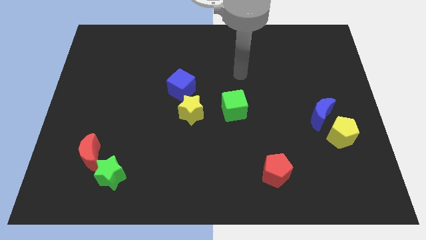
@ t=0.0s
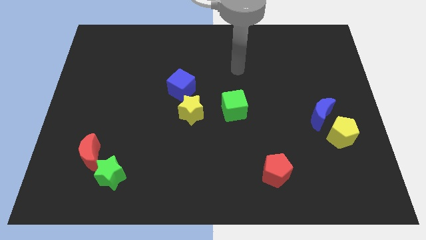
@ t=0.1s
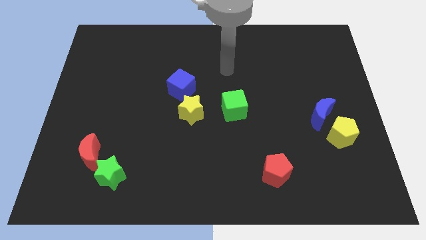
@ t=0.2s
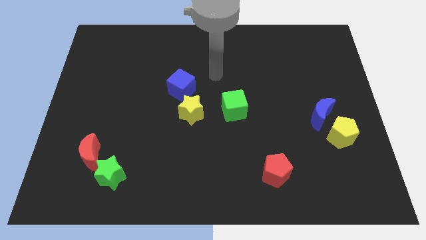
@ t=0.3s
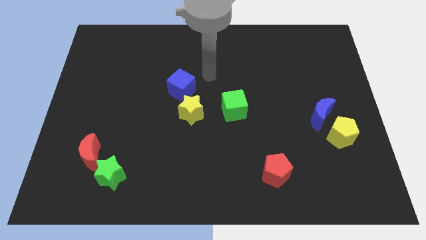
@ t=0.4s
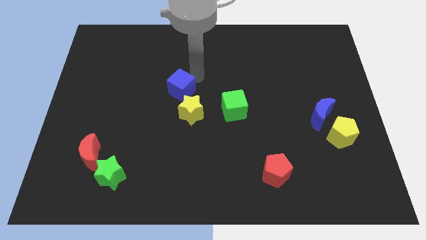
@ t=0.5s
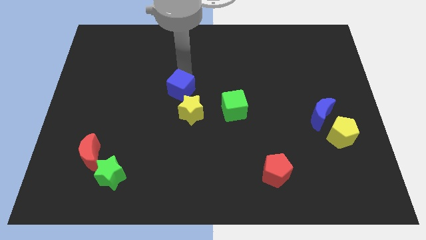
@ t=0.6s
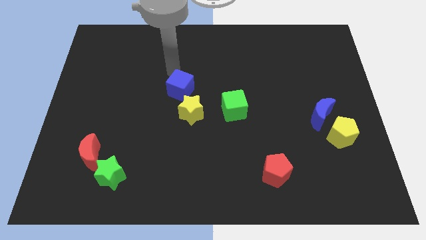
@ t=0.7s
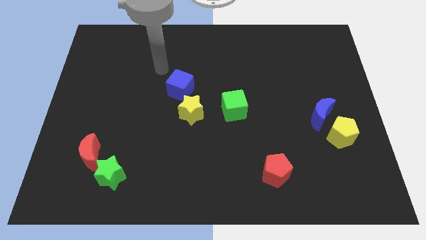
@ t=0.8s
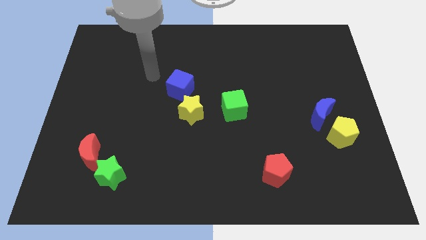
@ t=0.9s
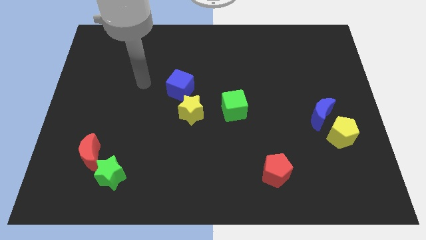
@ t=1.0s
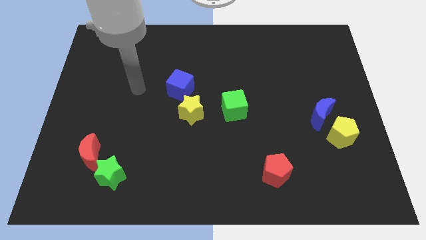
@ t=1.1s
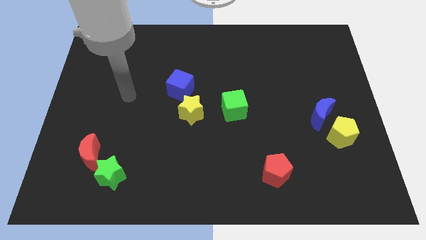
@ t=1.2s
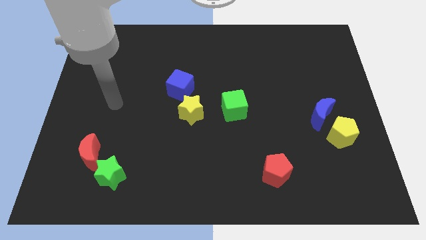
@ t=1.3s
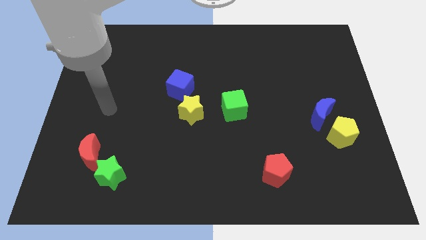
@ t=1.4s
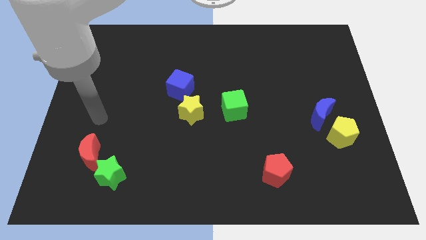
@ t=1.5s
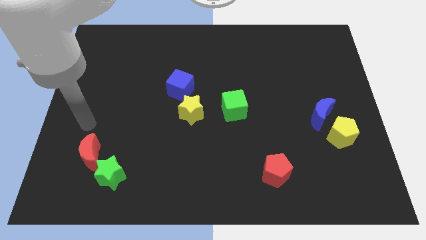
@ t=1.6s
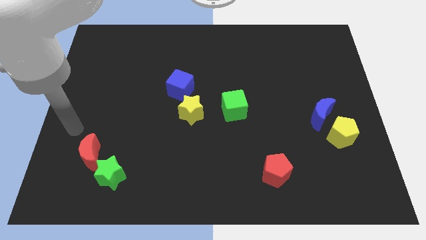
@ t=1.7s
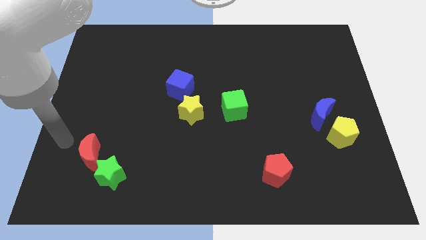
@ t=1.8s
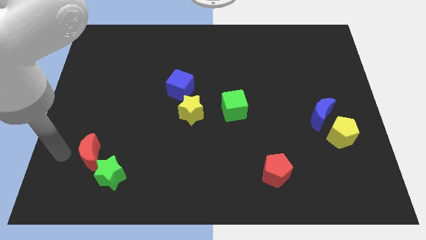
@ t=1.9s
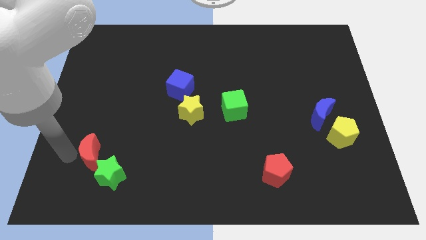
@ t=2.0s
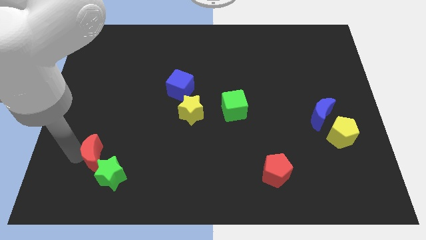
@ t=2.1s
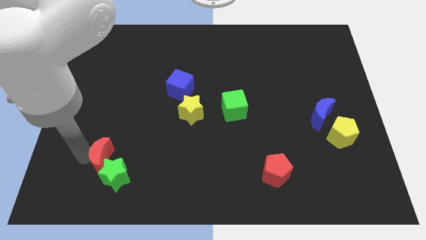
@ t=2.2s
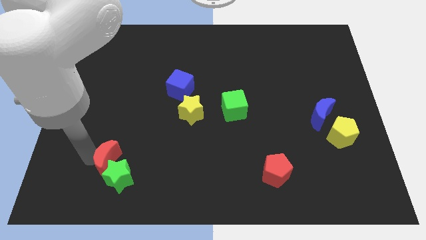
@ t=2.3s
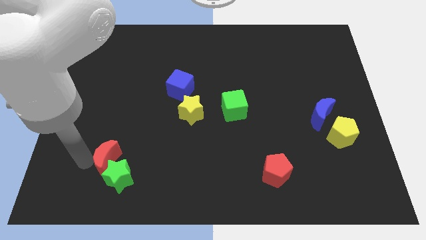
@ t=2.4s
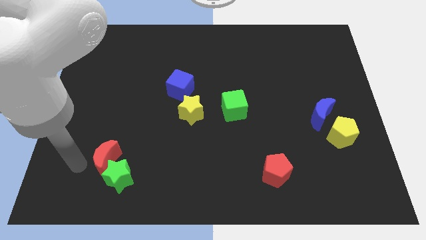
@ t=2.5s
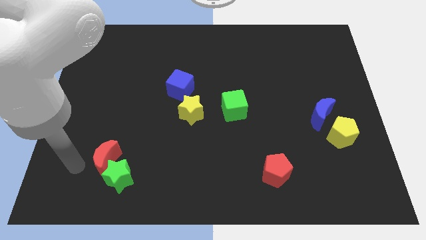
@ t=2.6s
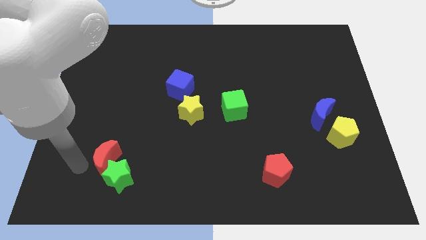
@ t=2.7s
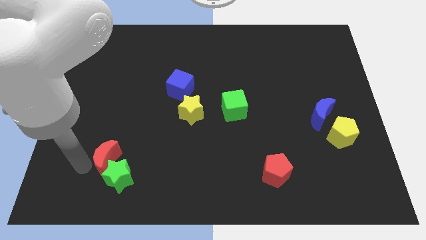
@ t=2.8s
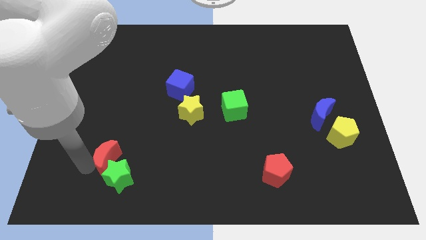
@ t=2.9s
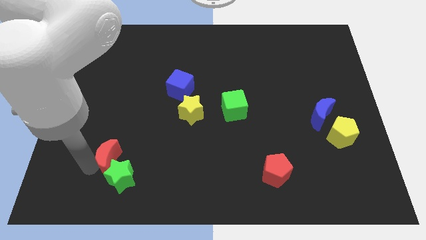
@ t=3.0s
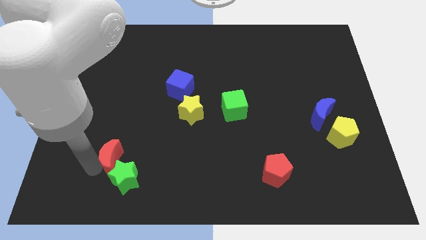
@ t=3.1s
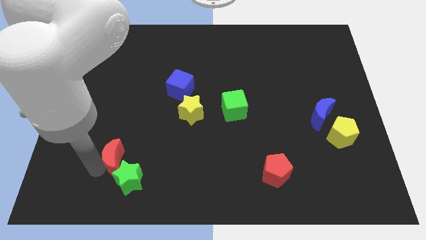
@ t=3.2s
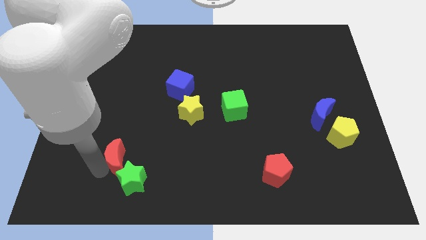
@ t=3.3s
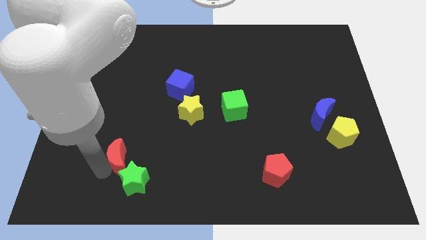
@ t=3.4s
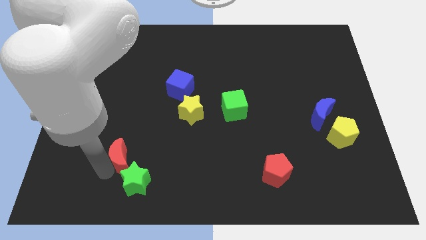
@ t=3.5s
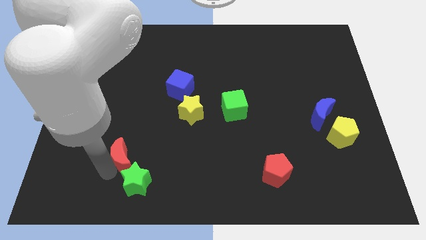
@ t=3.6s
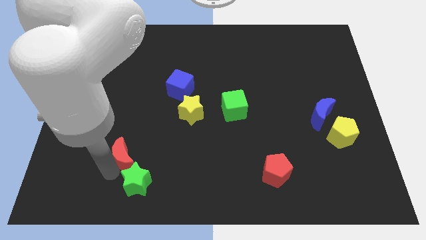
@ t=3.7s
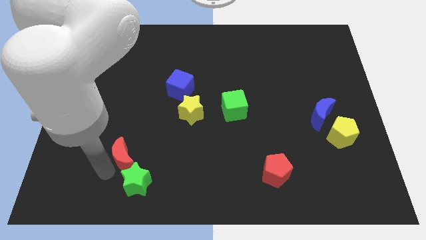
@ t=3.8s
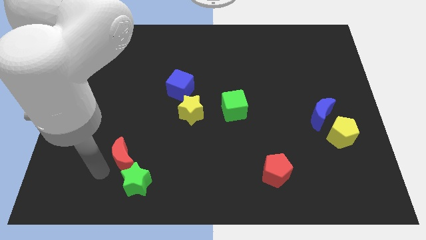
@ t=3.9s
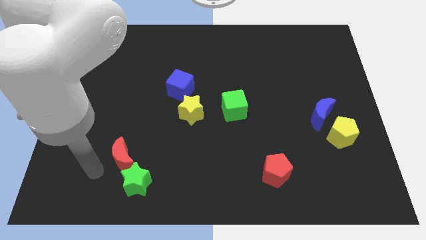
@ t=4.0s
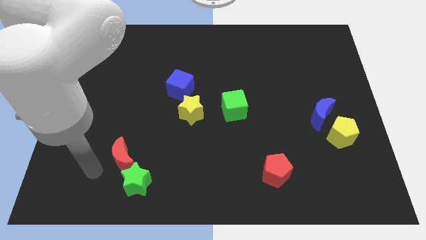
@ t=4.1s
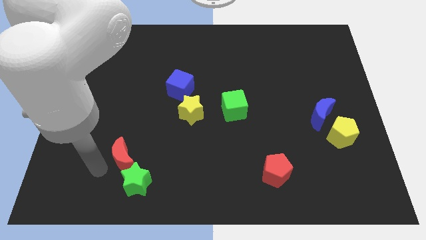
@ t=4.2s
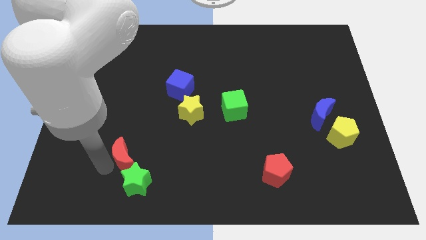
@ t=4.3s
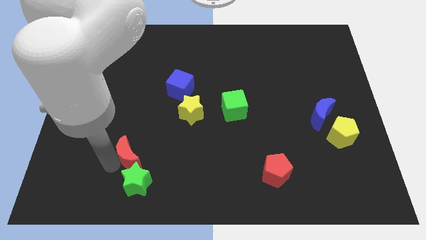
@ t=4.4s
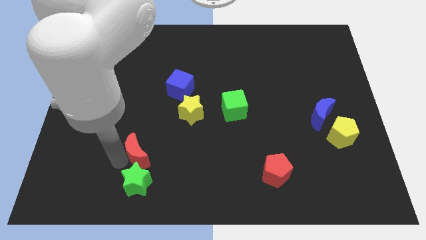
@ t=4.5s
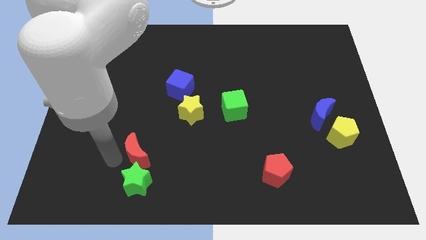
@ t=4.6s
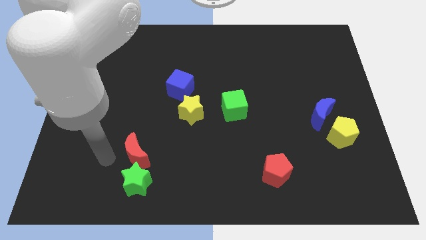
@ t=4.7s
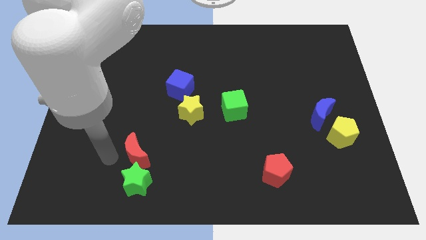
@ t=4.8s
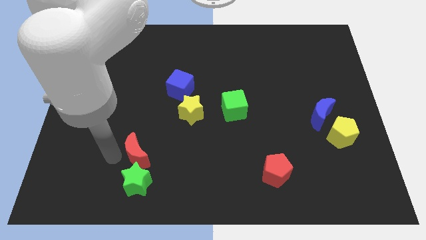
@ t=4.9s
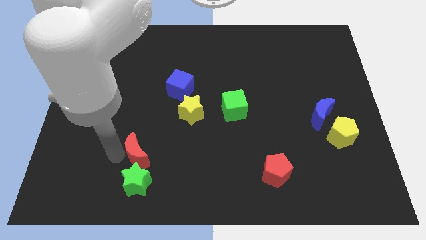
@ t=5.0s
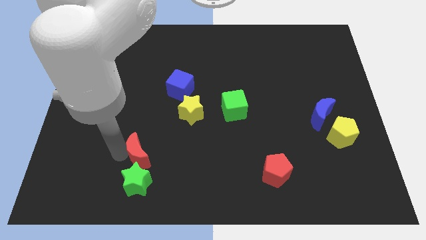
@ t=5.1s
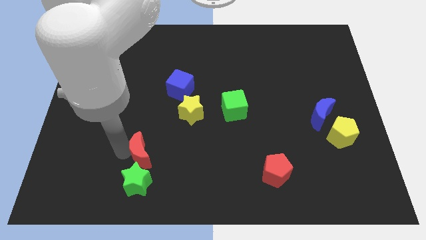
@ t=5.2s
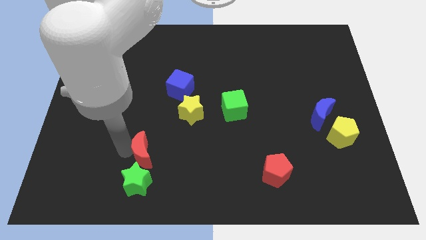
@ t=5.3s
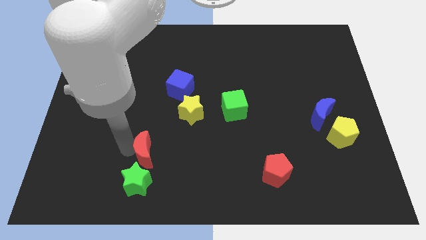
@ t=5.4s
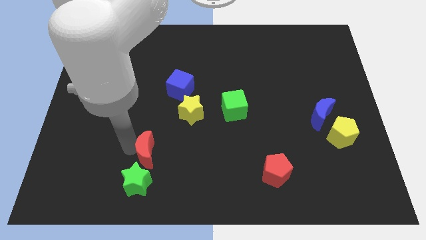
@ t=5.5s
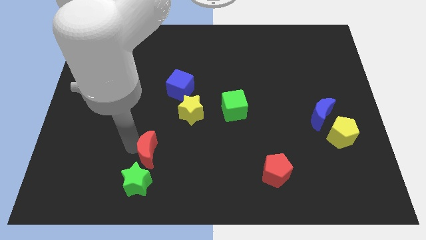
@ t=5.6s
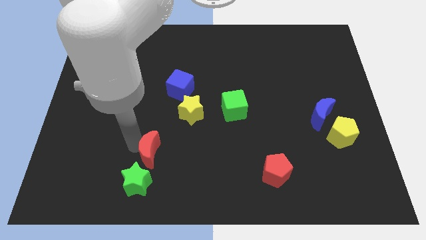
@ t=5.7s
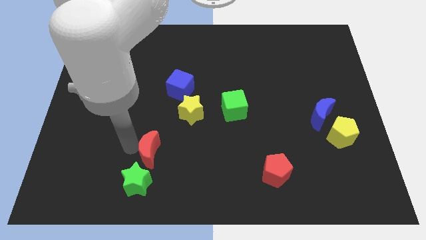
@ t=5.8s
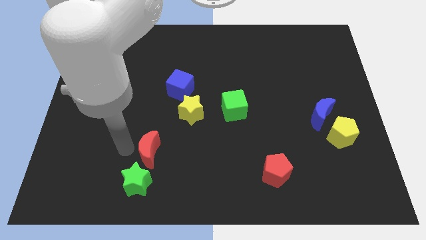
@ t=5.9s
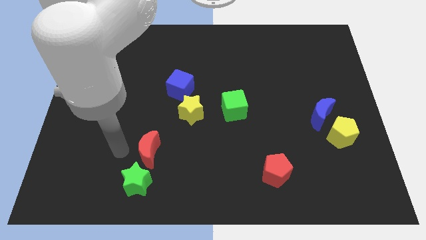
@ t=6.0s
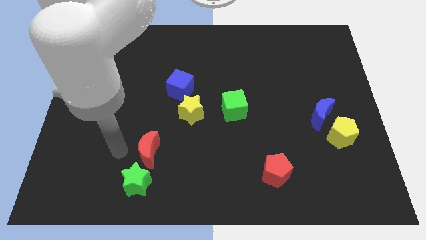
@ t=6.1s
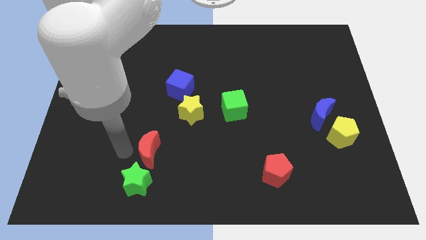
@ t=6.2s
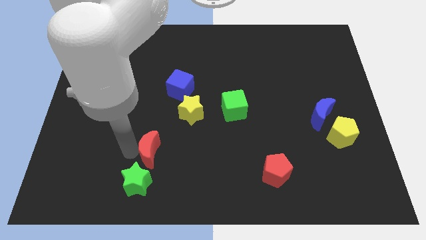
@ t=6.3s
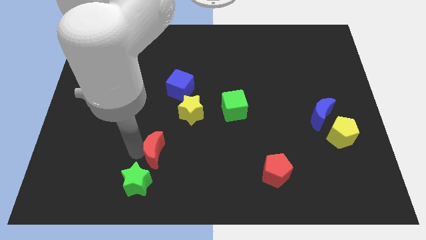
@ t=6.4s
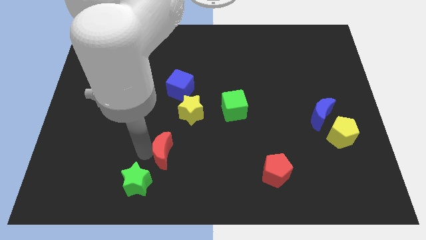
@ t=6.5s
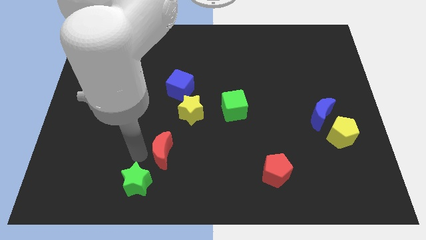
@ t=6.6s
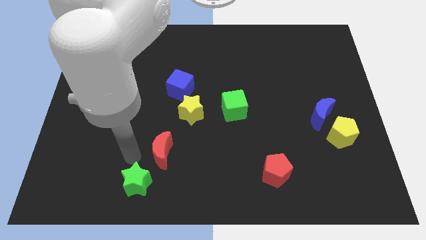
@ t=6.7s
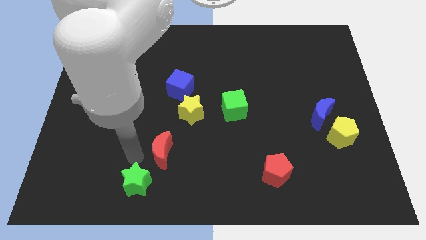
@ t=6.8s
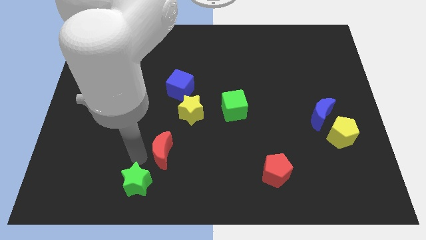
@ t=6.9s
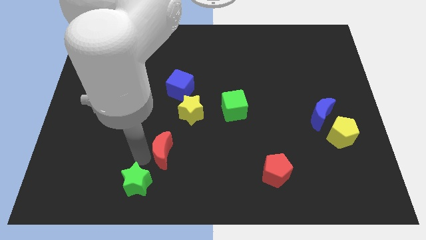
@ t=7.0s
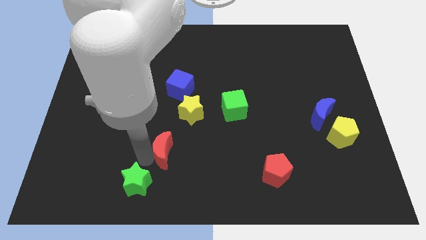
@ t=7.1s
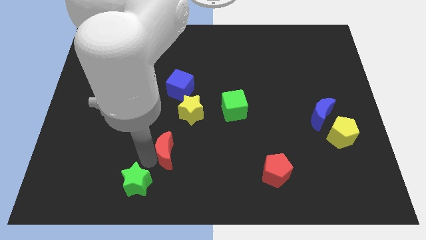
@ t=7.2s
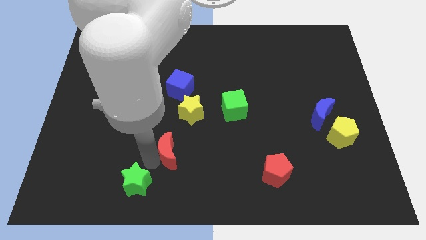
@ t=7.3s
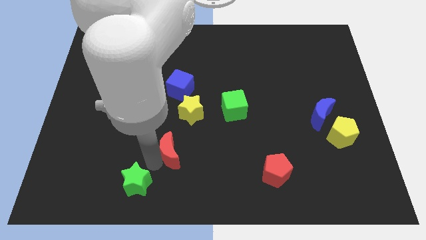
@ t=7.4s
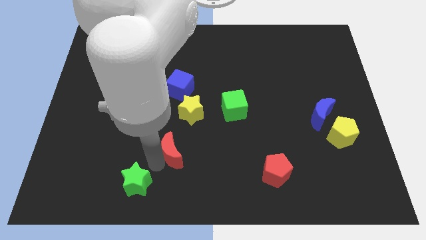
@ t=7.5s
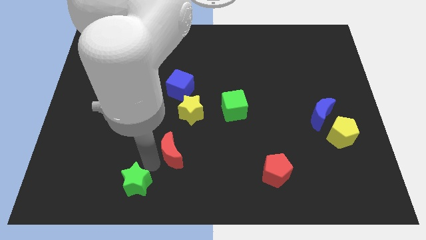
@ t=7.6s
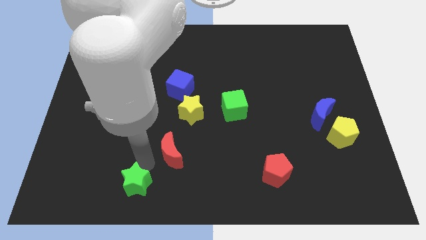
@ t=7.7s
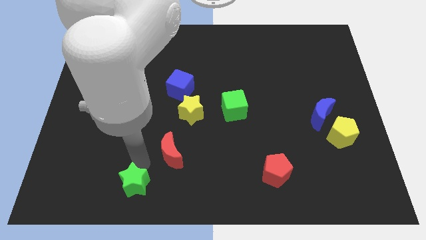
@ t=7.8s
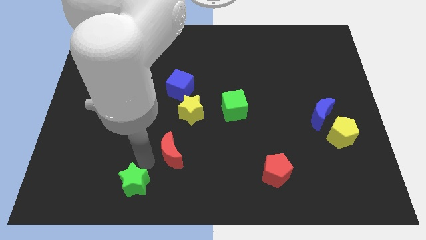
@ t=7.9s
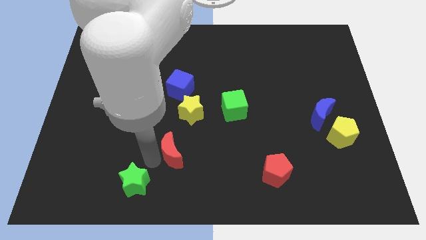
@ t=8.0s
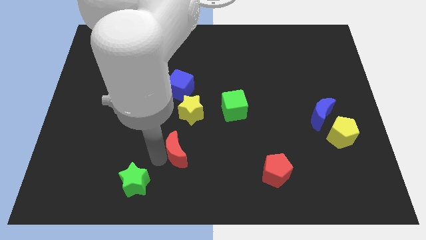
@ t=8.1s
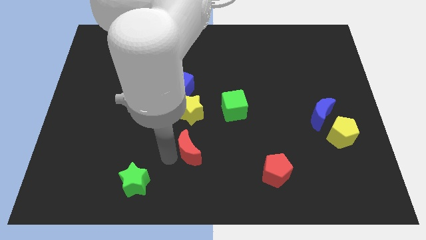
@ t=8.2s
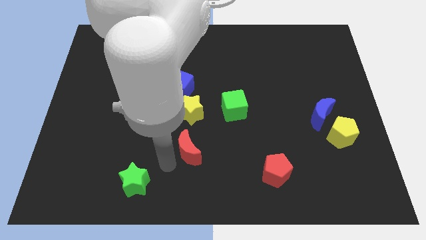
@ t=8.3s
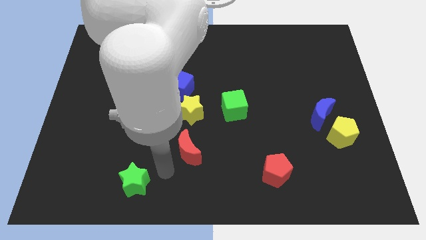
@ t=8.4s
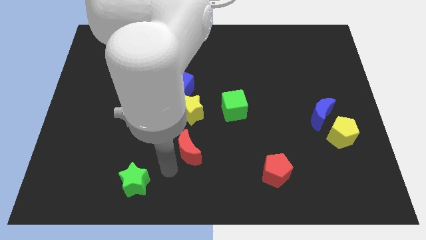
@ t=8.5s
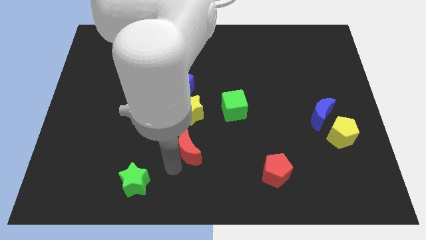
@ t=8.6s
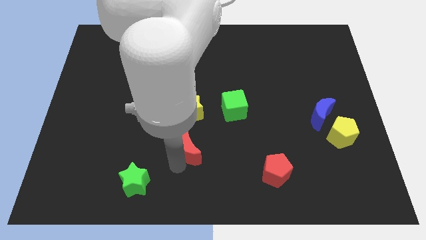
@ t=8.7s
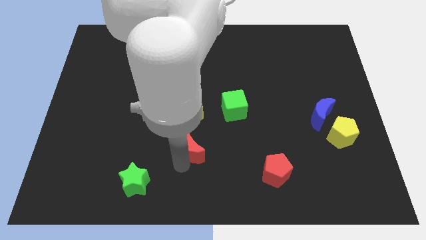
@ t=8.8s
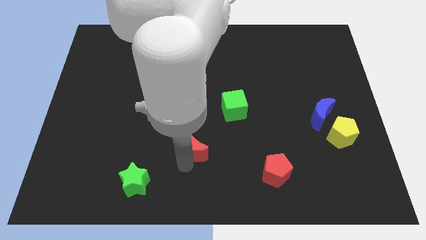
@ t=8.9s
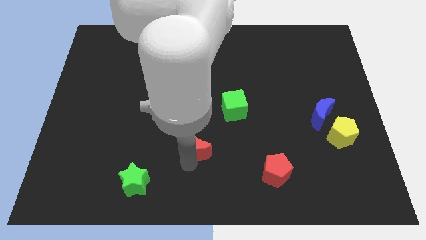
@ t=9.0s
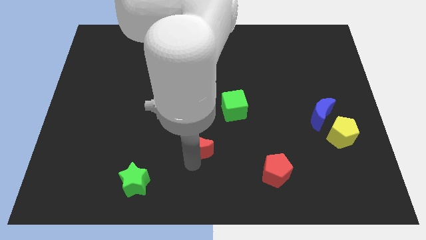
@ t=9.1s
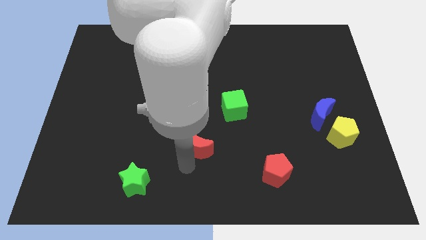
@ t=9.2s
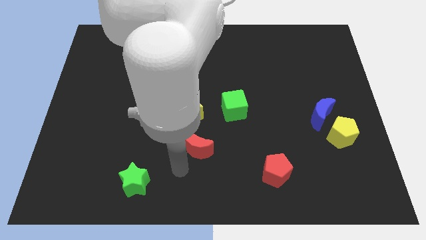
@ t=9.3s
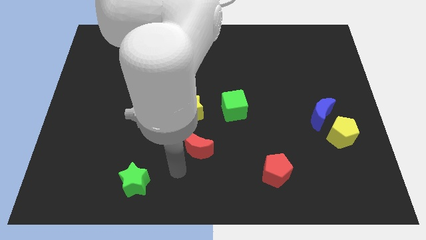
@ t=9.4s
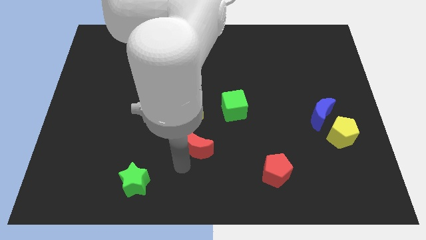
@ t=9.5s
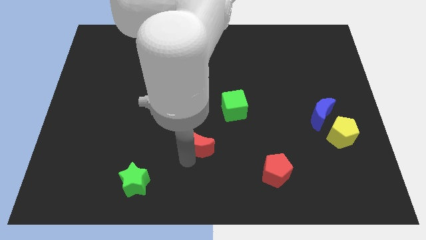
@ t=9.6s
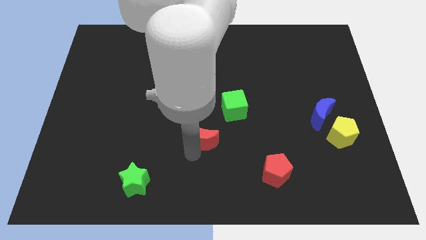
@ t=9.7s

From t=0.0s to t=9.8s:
slide the red moon to the bottom right side of the yellow star
